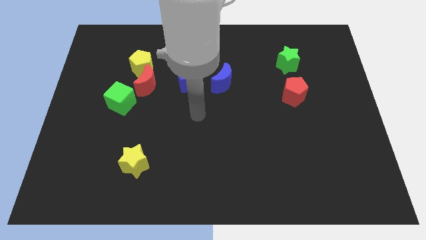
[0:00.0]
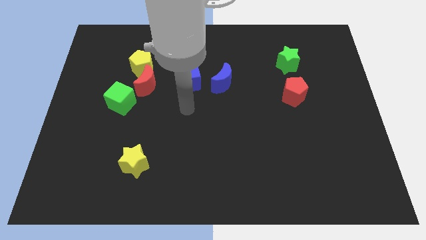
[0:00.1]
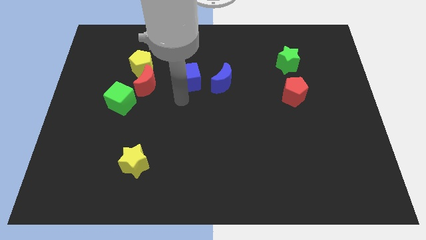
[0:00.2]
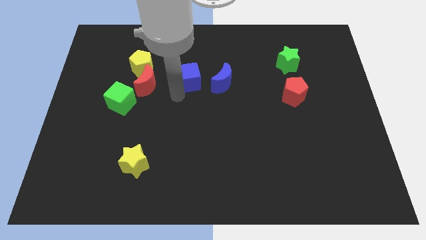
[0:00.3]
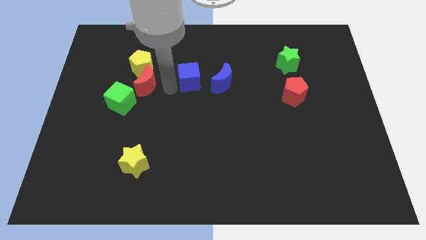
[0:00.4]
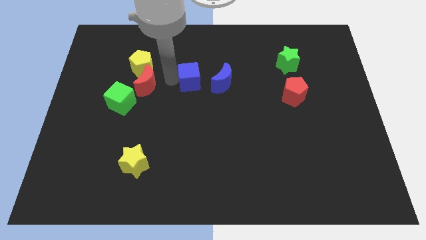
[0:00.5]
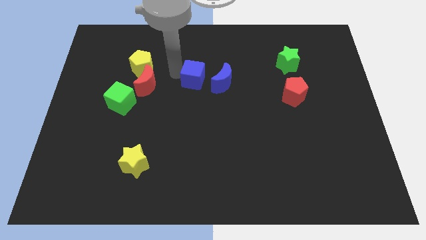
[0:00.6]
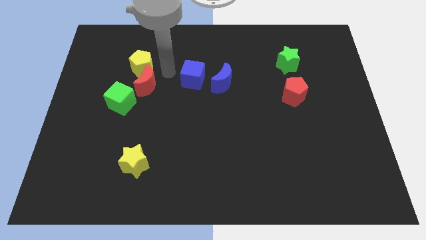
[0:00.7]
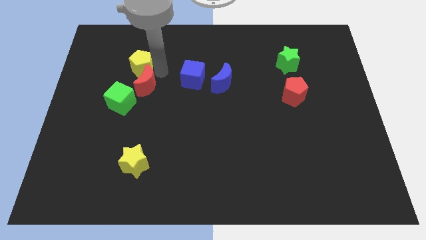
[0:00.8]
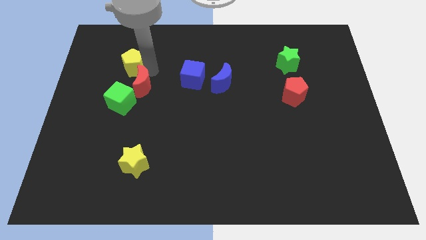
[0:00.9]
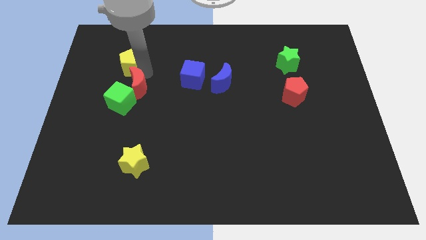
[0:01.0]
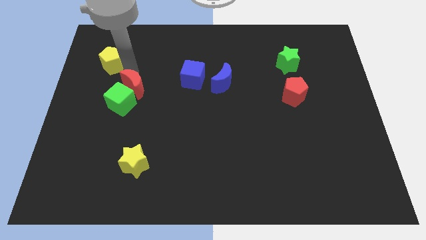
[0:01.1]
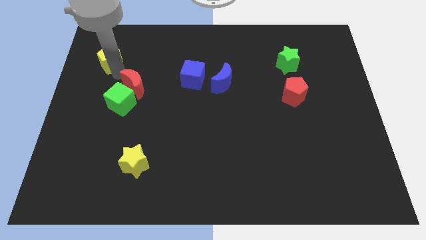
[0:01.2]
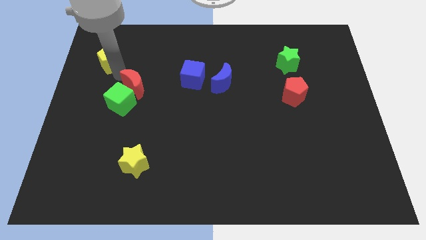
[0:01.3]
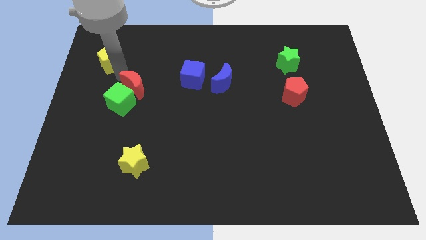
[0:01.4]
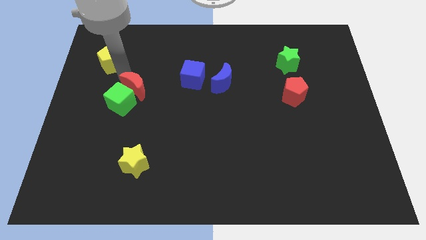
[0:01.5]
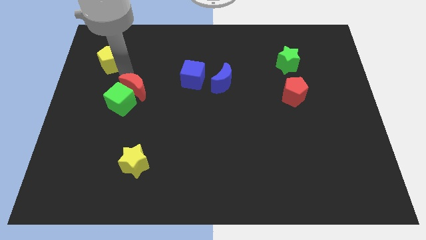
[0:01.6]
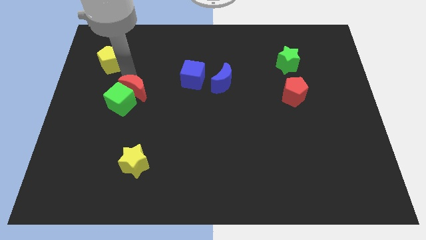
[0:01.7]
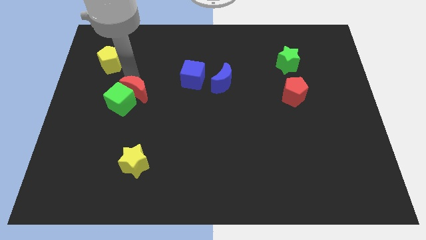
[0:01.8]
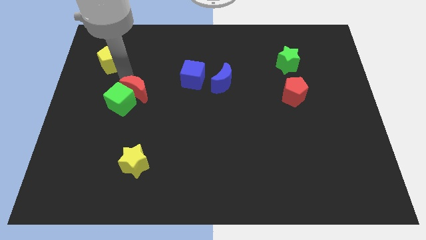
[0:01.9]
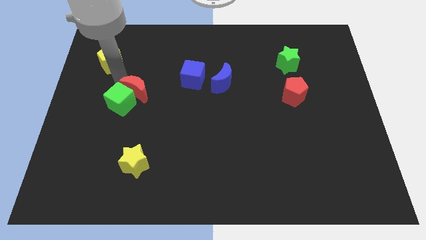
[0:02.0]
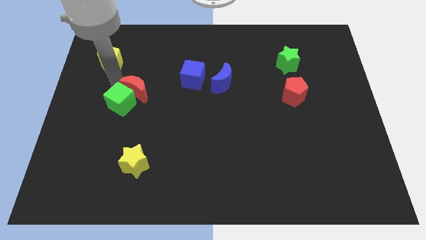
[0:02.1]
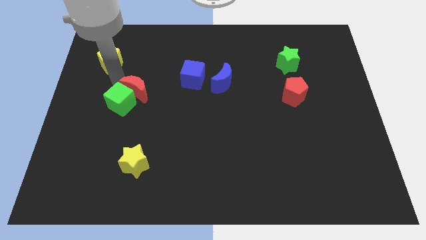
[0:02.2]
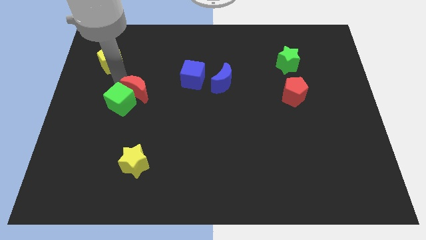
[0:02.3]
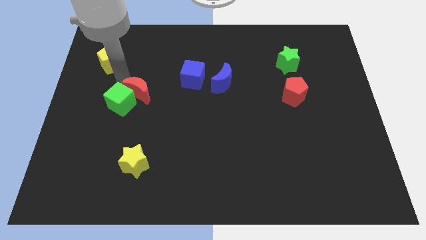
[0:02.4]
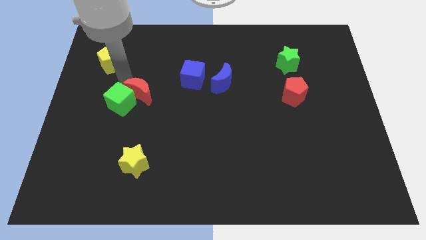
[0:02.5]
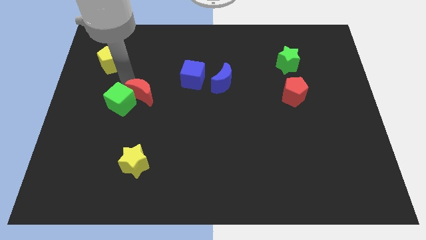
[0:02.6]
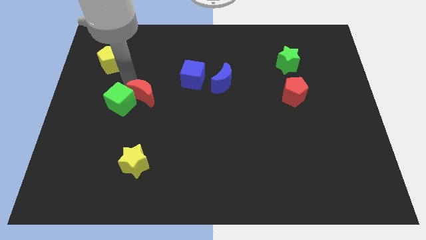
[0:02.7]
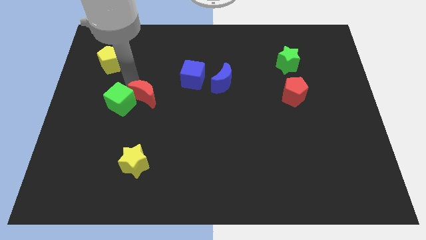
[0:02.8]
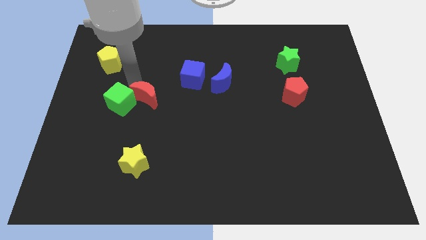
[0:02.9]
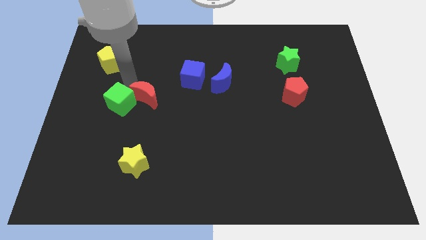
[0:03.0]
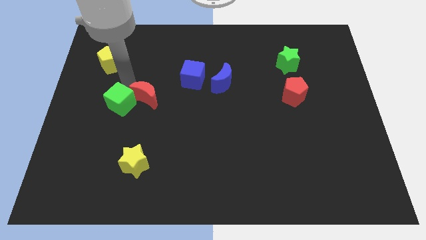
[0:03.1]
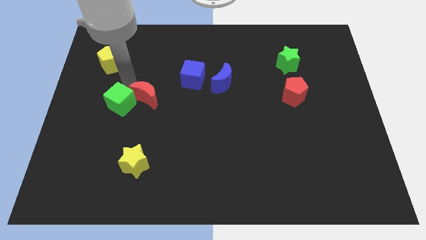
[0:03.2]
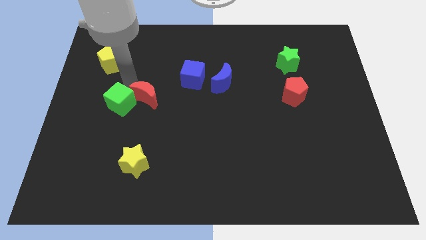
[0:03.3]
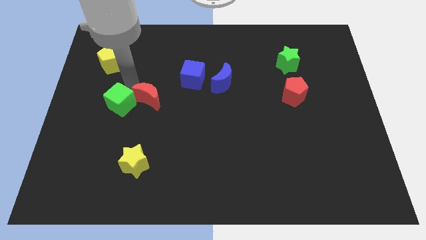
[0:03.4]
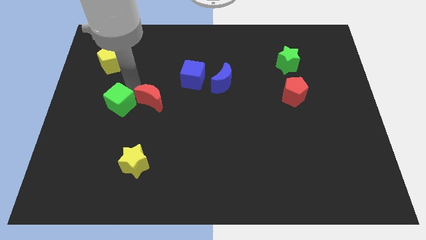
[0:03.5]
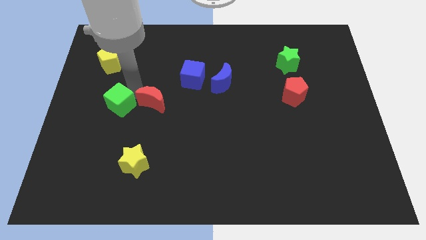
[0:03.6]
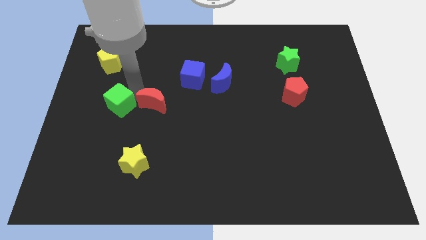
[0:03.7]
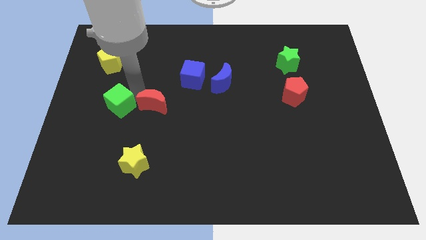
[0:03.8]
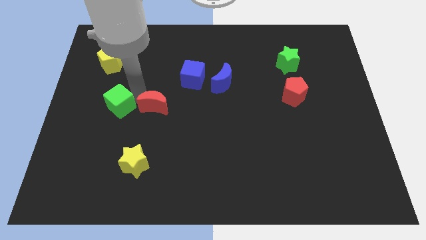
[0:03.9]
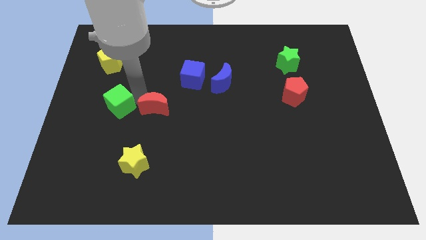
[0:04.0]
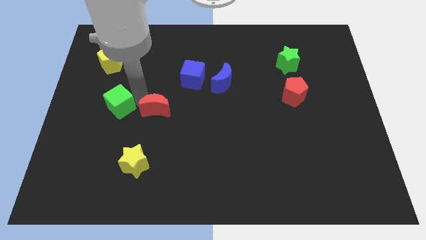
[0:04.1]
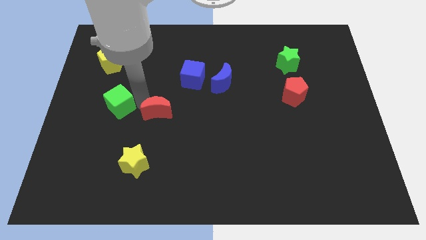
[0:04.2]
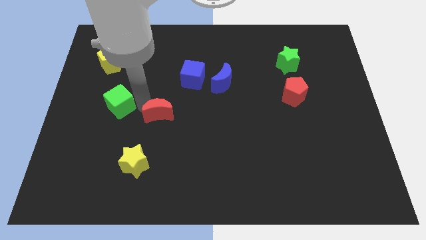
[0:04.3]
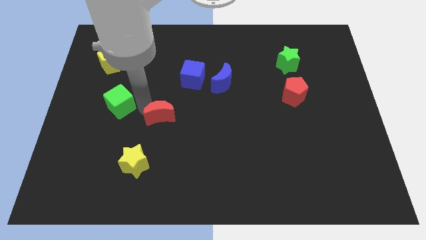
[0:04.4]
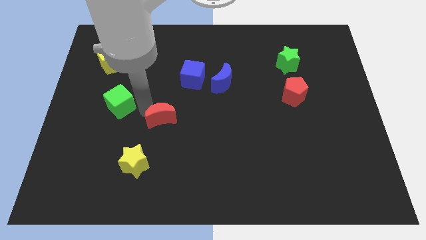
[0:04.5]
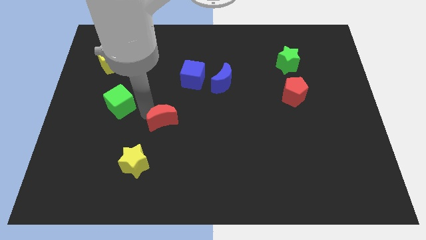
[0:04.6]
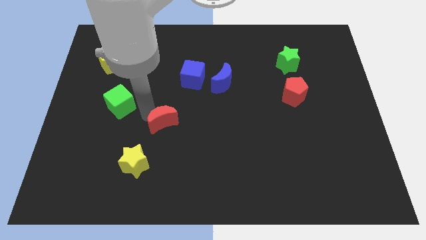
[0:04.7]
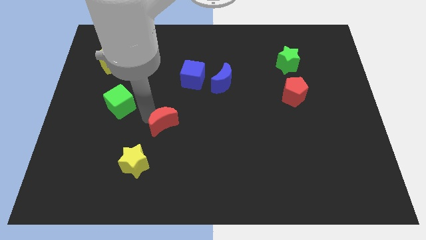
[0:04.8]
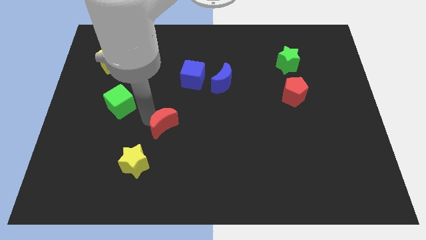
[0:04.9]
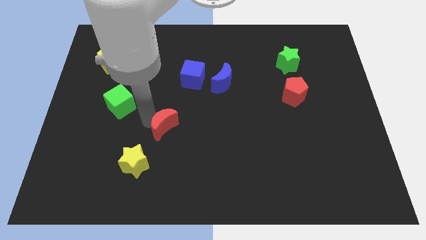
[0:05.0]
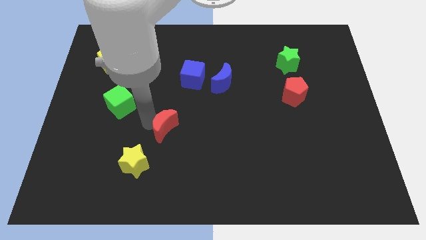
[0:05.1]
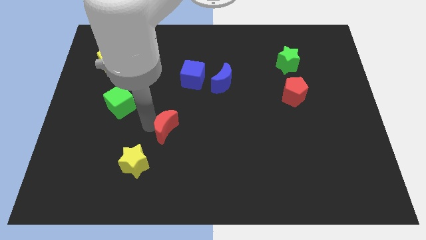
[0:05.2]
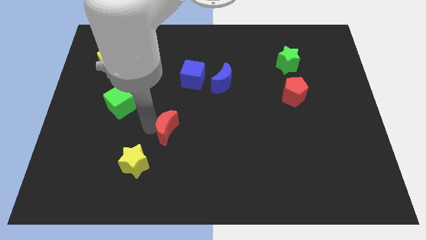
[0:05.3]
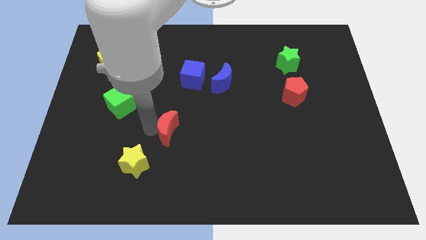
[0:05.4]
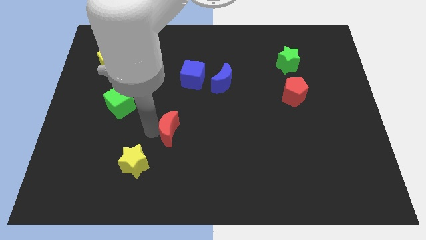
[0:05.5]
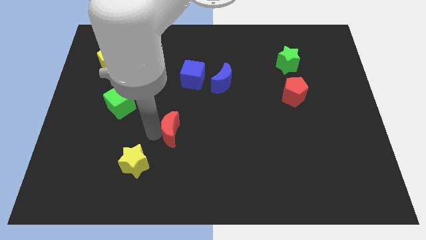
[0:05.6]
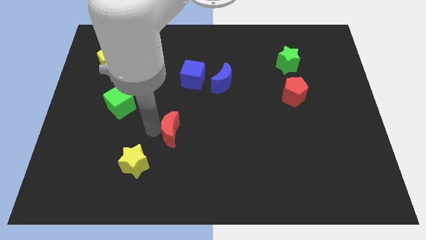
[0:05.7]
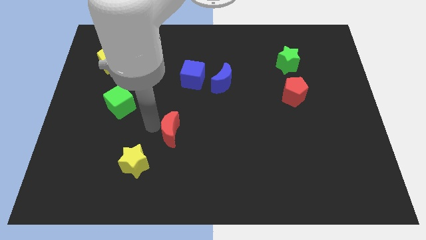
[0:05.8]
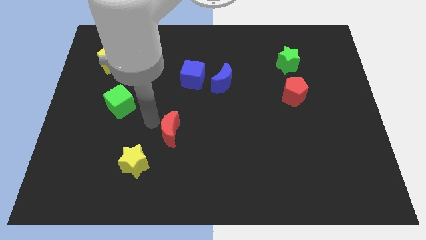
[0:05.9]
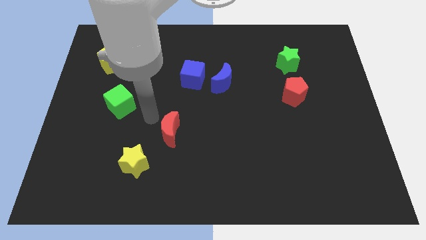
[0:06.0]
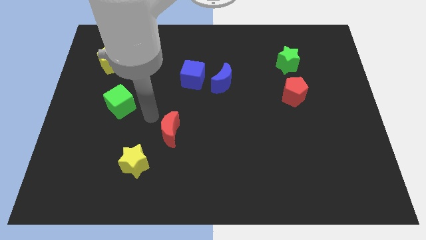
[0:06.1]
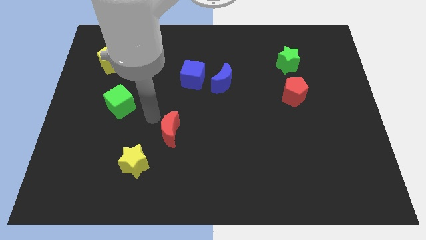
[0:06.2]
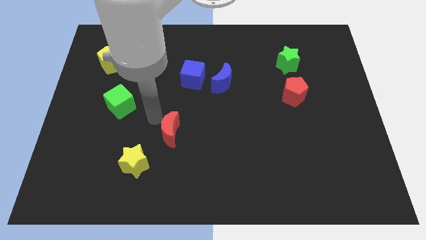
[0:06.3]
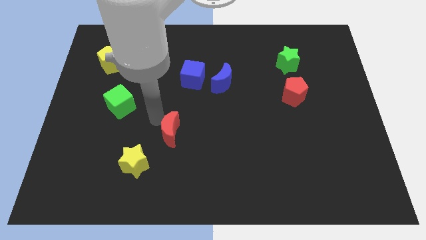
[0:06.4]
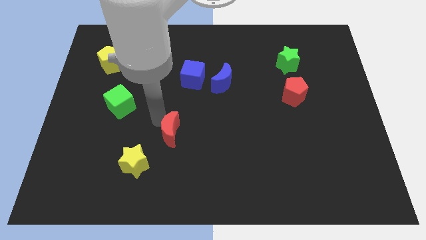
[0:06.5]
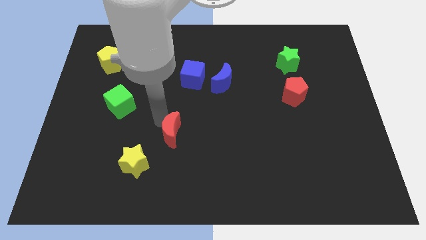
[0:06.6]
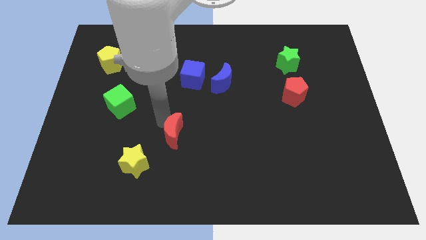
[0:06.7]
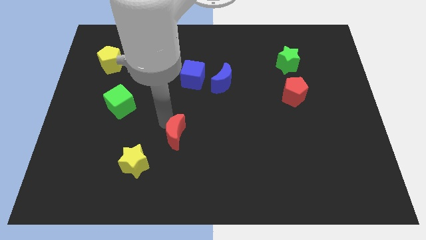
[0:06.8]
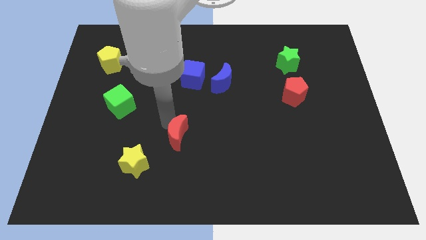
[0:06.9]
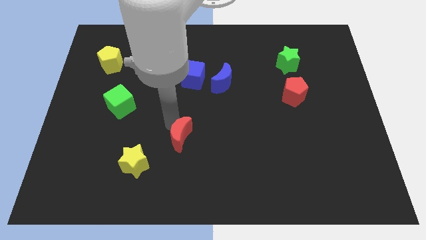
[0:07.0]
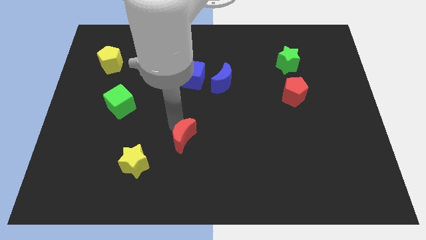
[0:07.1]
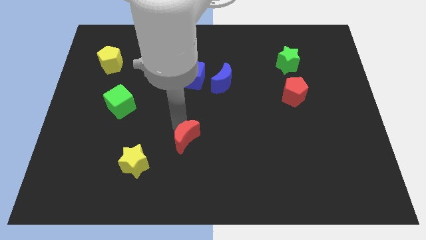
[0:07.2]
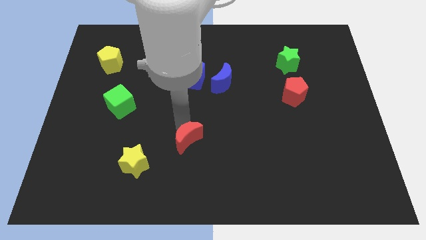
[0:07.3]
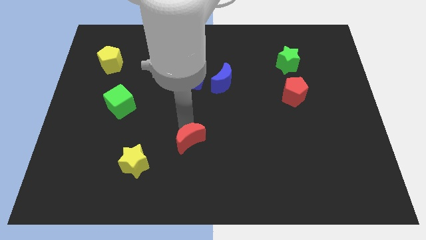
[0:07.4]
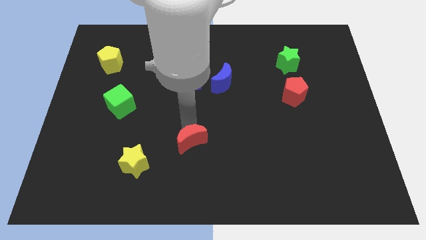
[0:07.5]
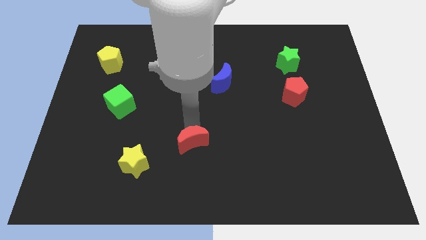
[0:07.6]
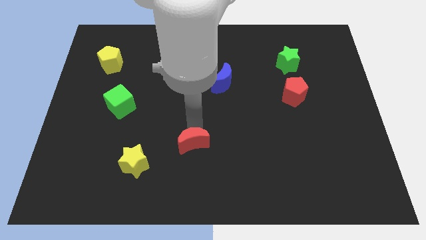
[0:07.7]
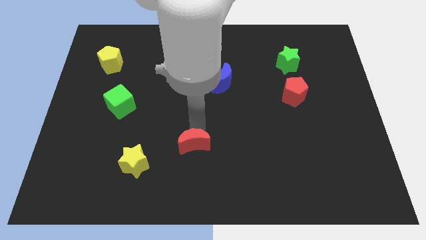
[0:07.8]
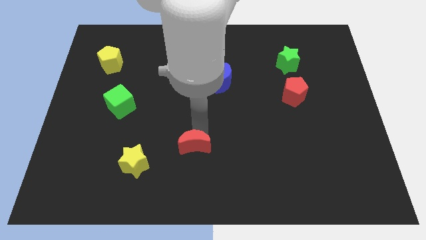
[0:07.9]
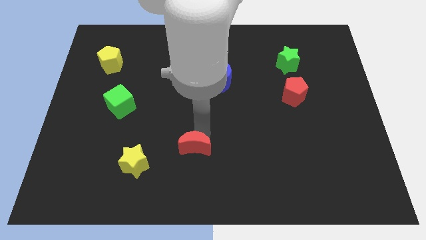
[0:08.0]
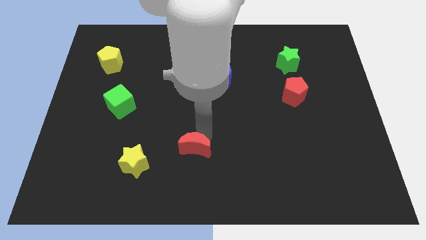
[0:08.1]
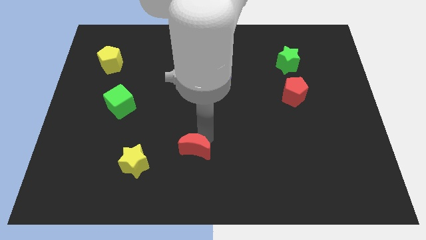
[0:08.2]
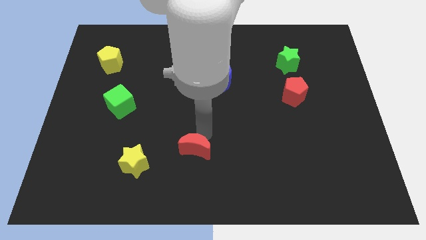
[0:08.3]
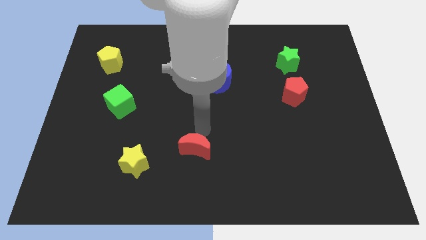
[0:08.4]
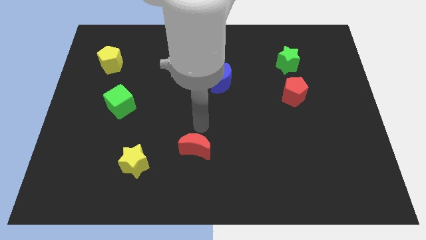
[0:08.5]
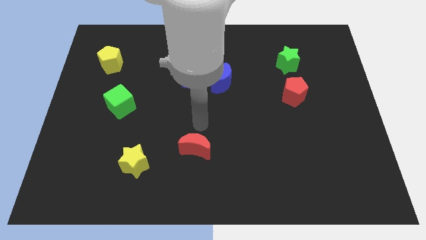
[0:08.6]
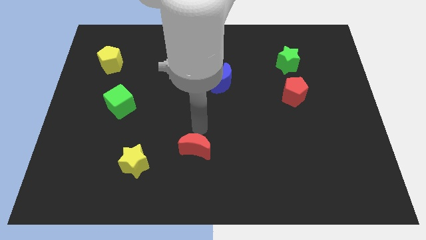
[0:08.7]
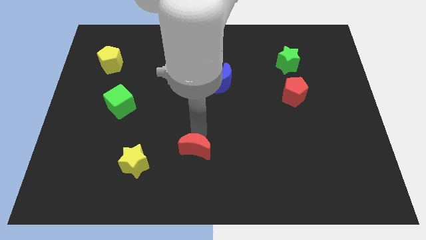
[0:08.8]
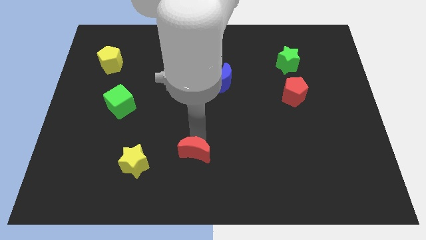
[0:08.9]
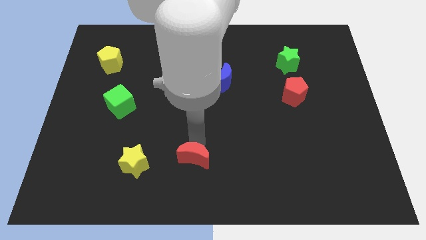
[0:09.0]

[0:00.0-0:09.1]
slide the red moon to the bottom side
